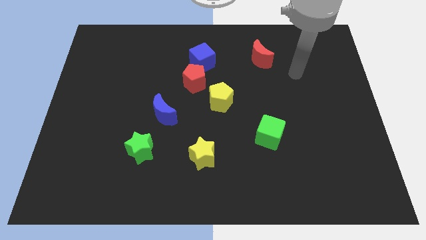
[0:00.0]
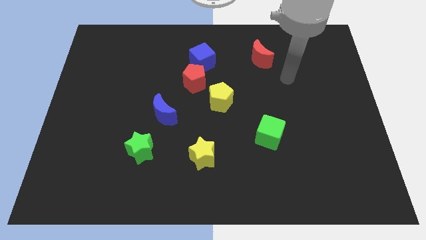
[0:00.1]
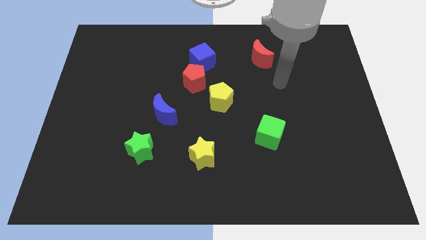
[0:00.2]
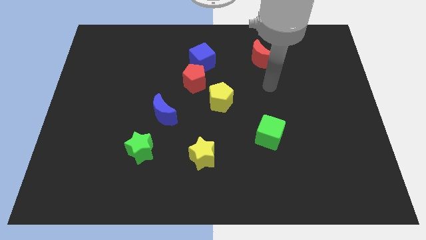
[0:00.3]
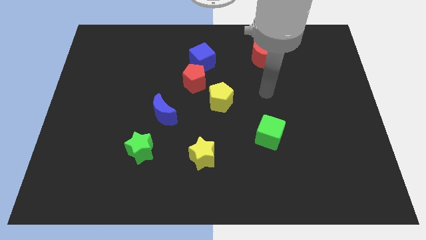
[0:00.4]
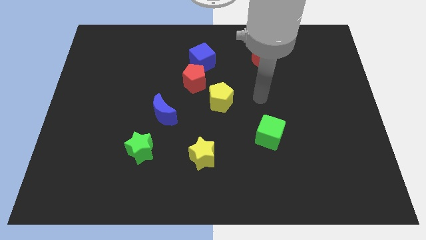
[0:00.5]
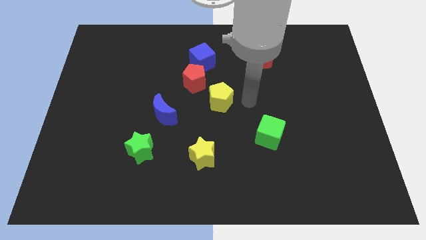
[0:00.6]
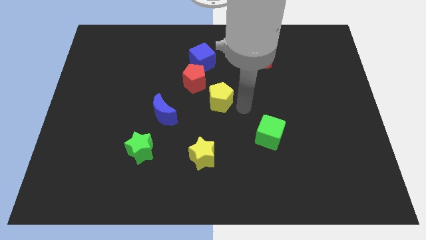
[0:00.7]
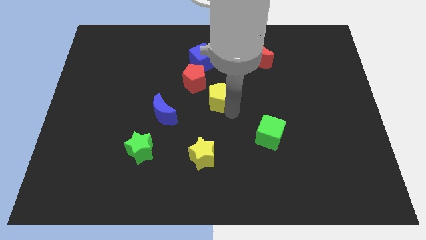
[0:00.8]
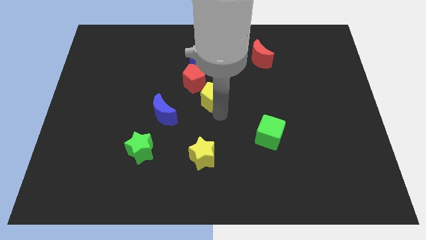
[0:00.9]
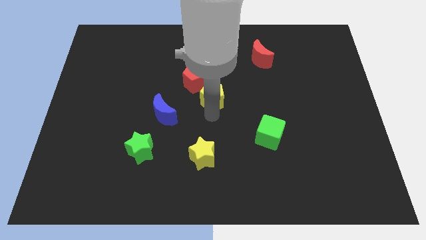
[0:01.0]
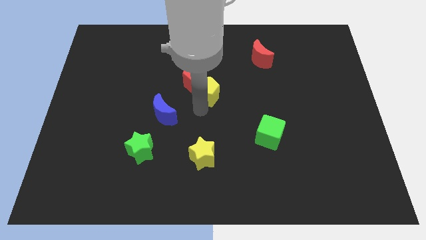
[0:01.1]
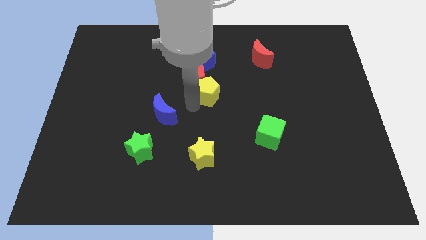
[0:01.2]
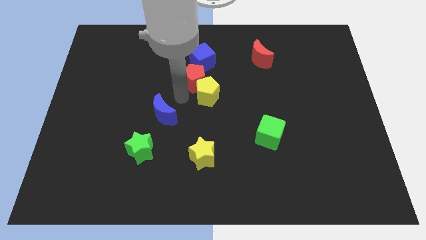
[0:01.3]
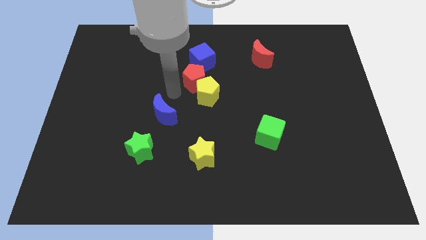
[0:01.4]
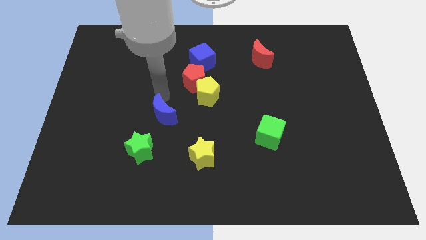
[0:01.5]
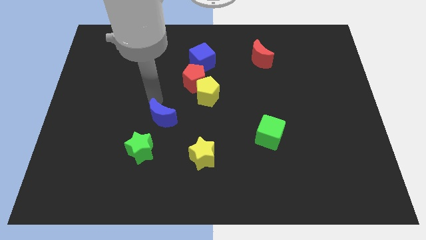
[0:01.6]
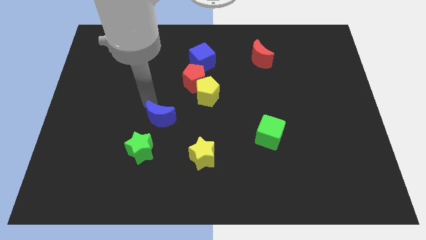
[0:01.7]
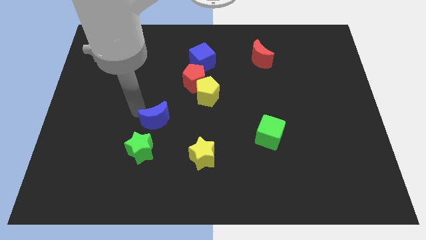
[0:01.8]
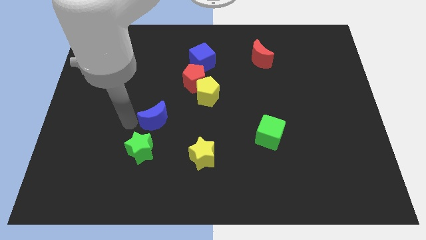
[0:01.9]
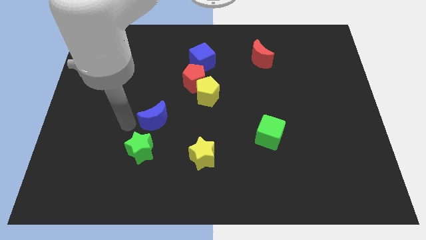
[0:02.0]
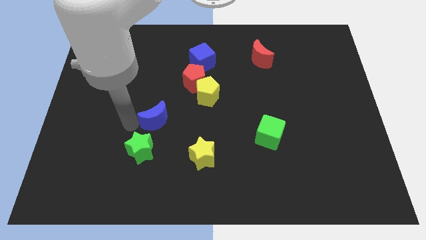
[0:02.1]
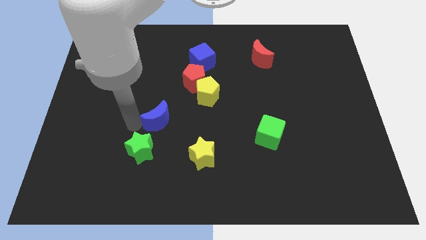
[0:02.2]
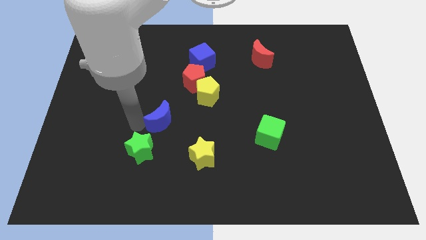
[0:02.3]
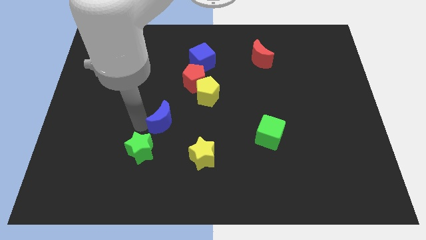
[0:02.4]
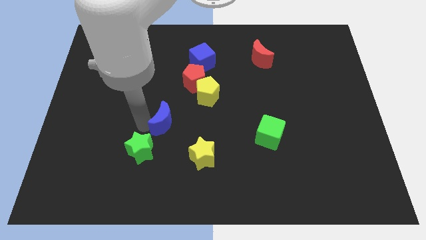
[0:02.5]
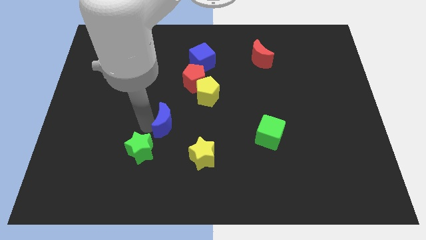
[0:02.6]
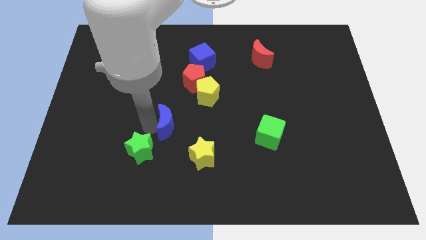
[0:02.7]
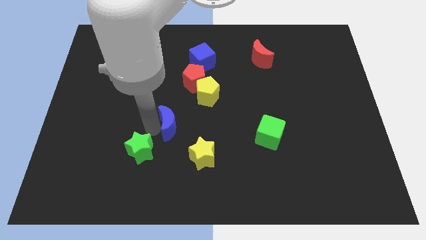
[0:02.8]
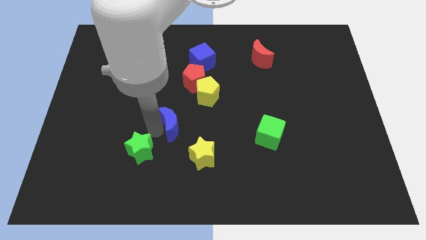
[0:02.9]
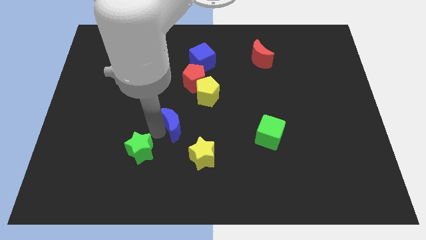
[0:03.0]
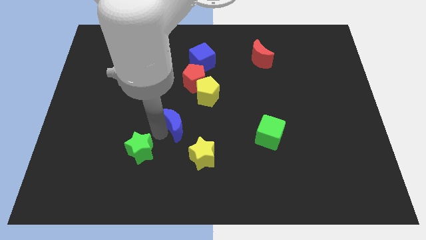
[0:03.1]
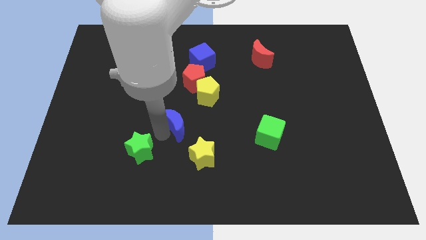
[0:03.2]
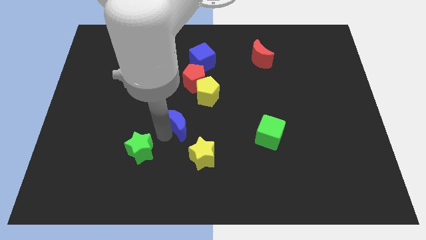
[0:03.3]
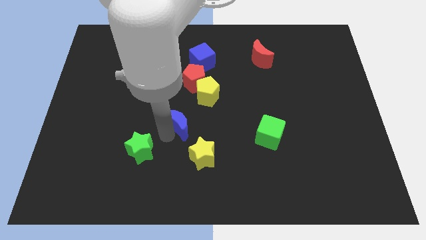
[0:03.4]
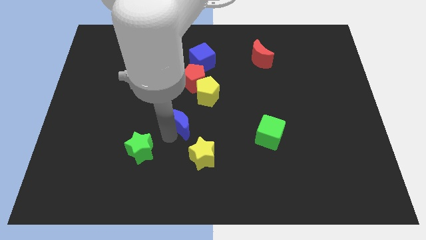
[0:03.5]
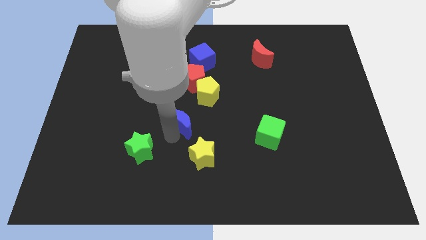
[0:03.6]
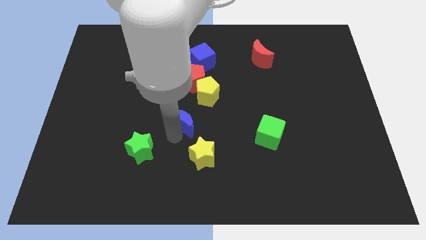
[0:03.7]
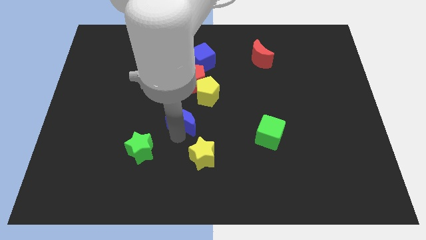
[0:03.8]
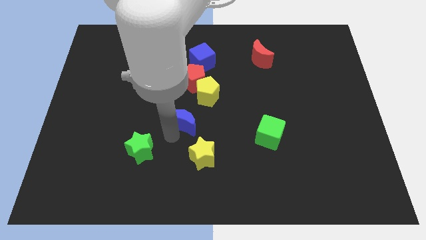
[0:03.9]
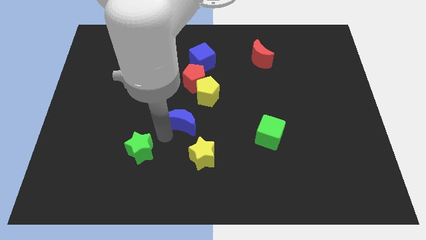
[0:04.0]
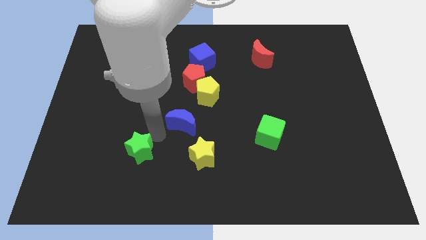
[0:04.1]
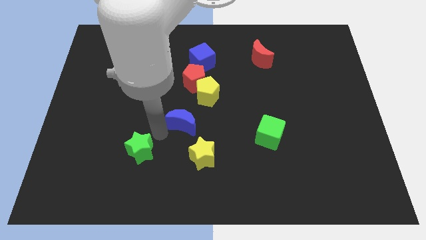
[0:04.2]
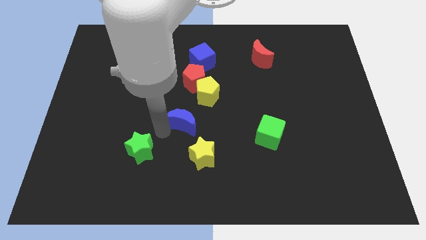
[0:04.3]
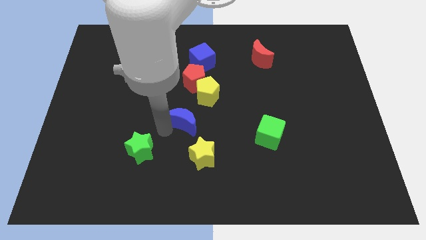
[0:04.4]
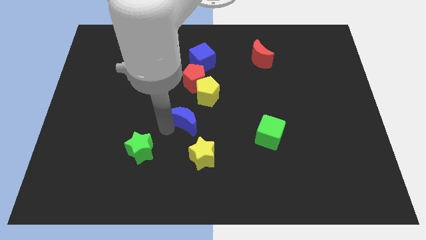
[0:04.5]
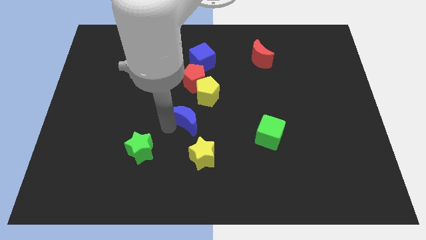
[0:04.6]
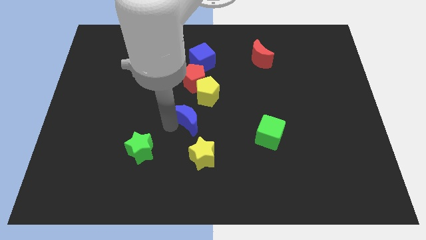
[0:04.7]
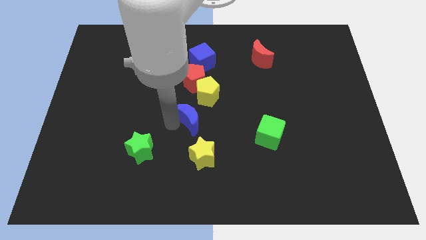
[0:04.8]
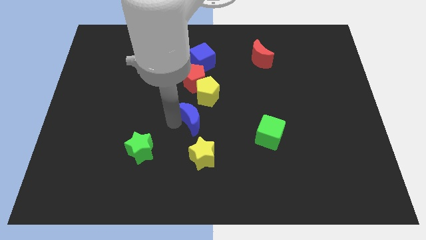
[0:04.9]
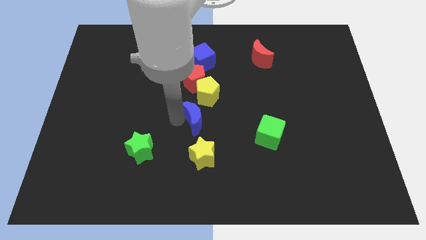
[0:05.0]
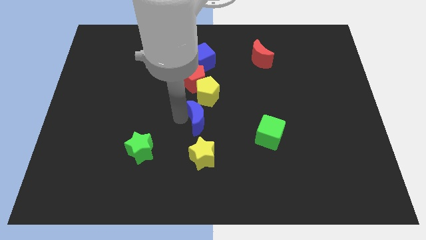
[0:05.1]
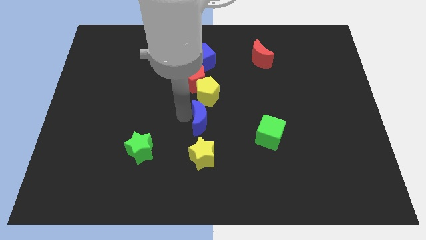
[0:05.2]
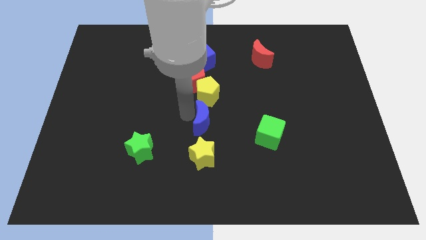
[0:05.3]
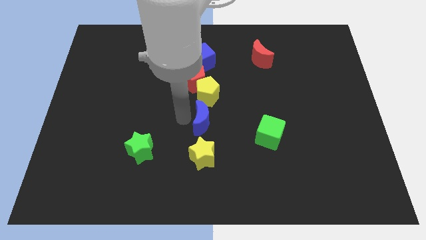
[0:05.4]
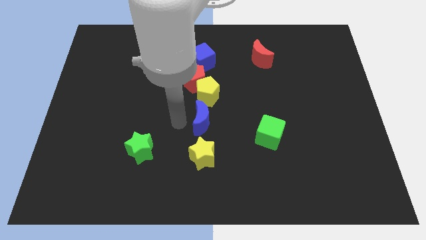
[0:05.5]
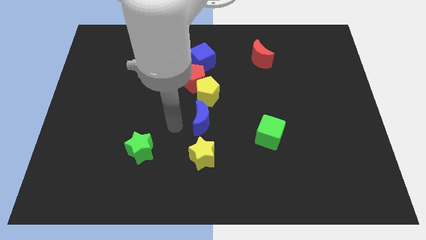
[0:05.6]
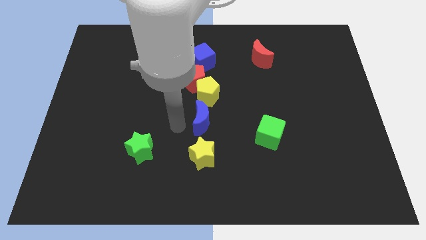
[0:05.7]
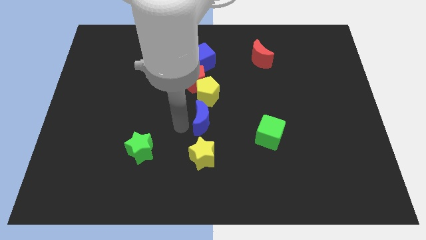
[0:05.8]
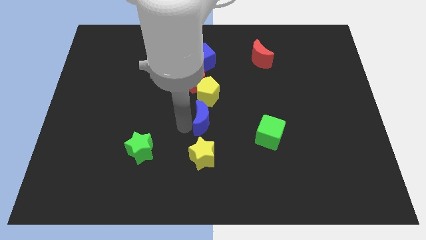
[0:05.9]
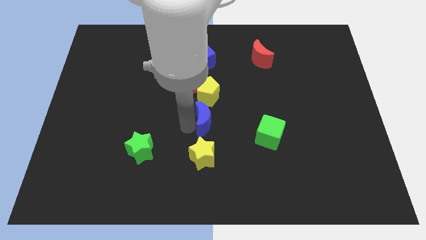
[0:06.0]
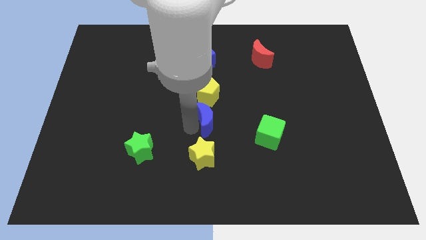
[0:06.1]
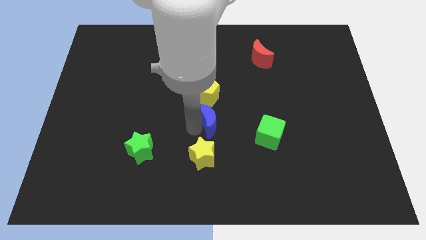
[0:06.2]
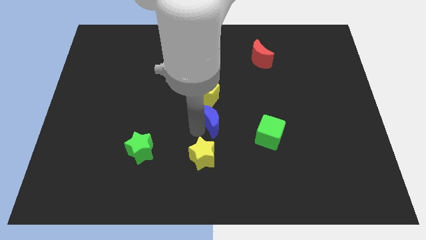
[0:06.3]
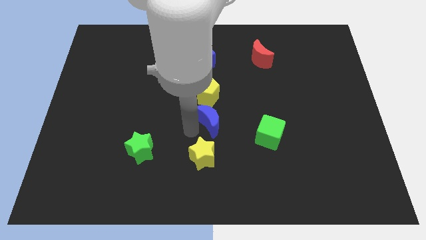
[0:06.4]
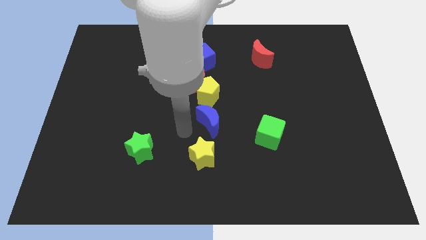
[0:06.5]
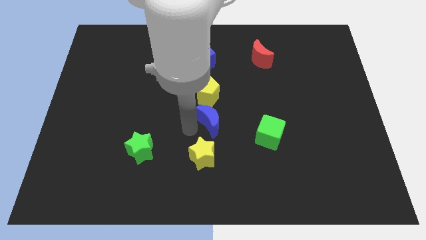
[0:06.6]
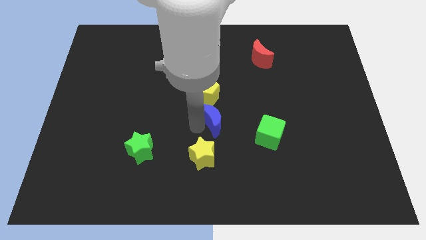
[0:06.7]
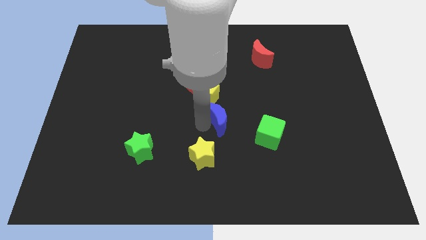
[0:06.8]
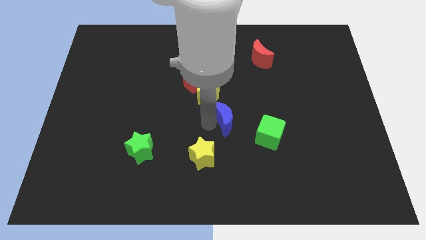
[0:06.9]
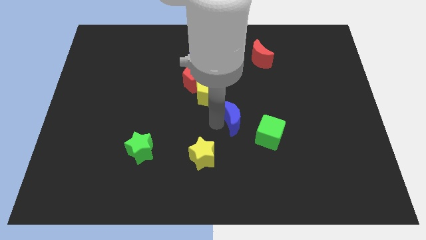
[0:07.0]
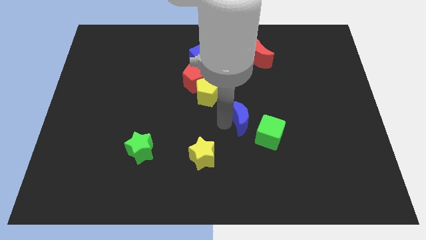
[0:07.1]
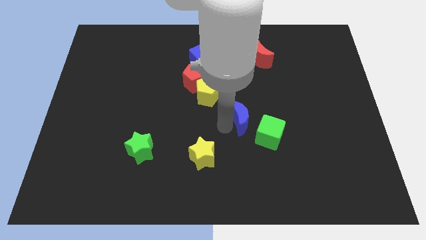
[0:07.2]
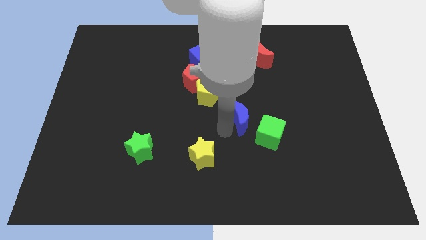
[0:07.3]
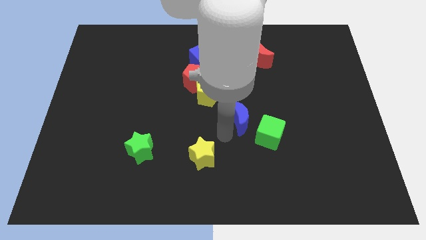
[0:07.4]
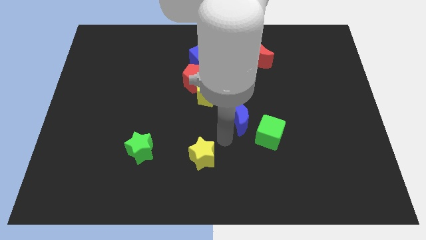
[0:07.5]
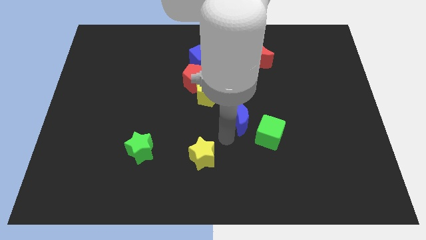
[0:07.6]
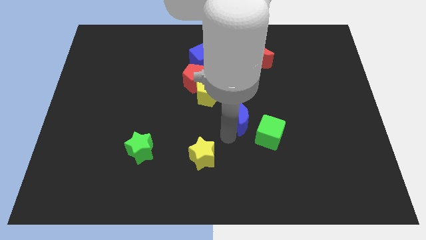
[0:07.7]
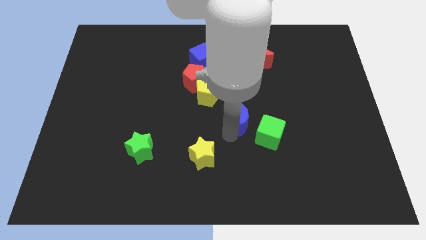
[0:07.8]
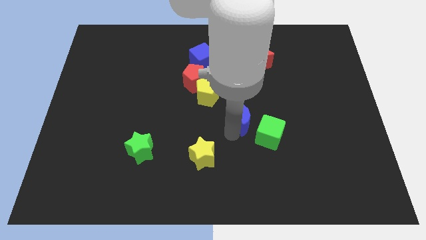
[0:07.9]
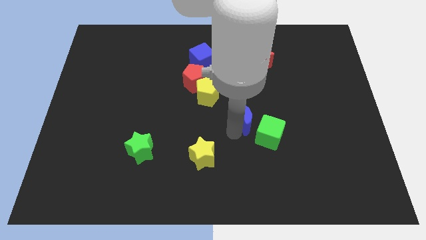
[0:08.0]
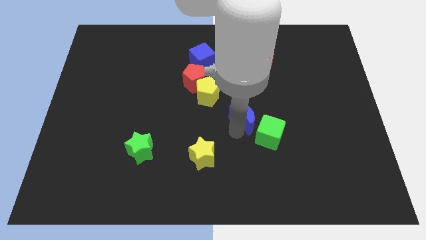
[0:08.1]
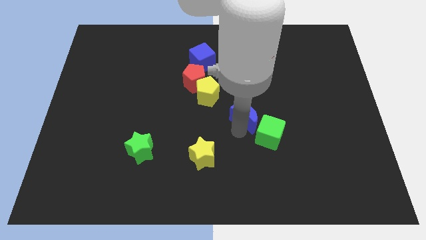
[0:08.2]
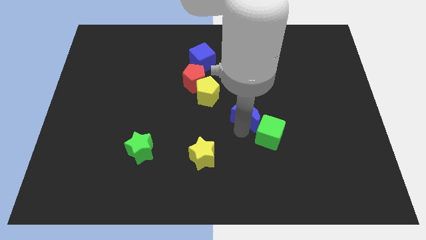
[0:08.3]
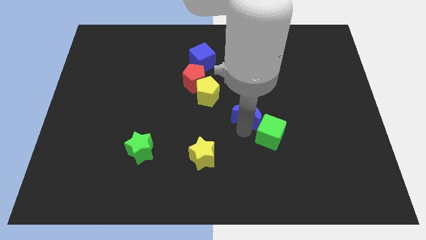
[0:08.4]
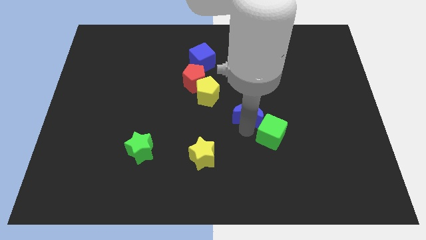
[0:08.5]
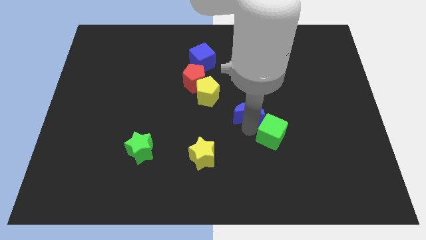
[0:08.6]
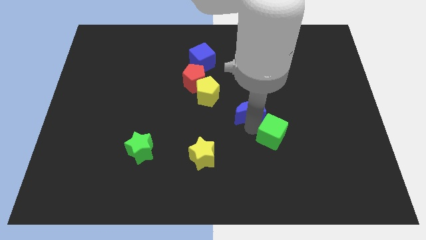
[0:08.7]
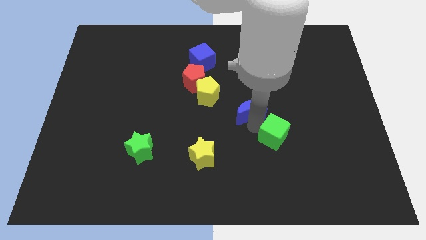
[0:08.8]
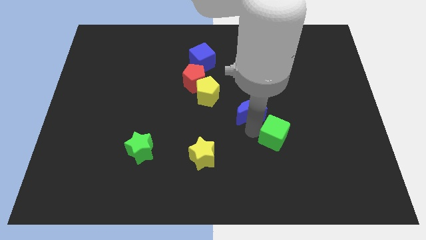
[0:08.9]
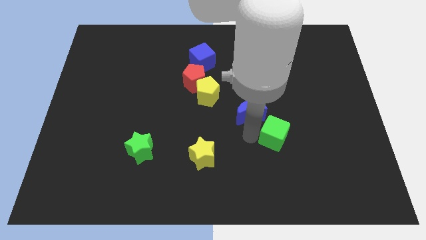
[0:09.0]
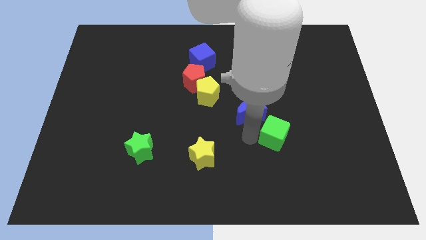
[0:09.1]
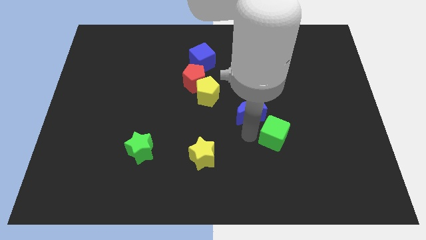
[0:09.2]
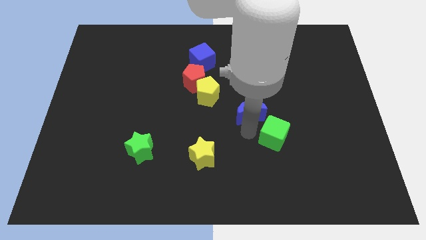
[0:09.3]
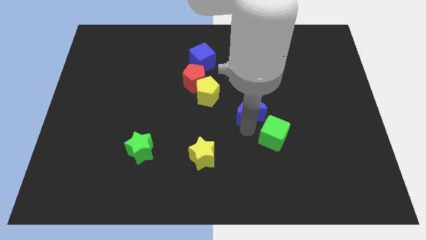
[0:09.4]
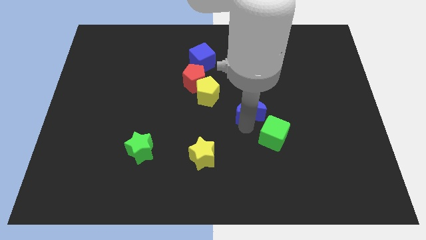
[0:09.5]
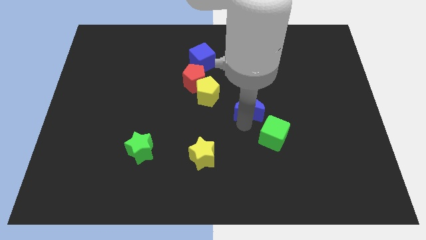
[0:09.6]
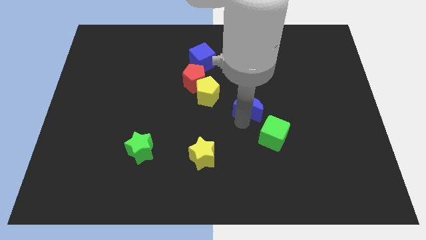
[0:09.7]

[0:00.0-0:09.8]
move the blue moon to the right side of the yellow pentagon
